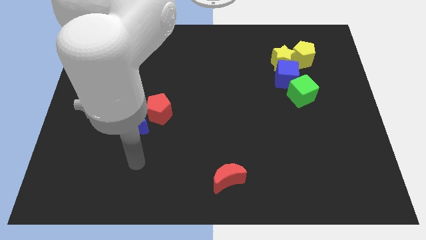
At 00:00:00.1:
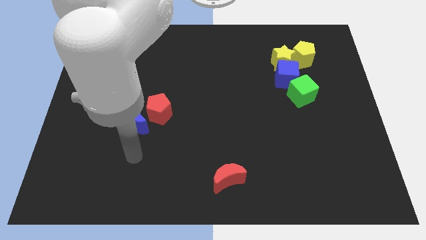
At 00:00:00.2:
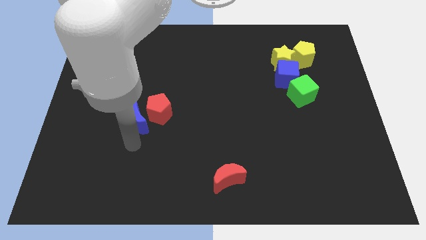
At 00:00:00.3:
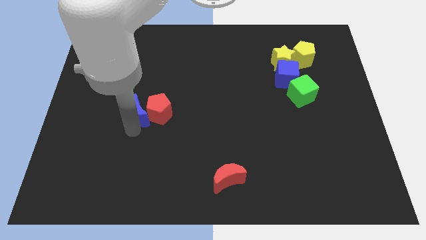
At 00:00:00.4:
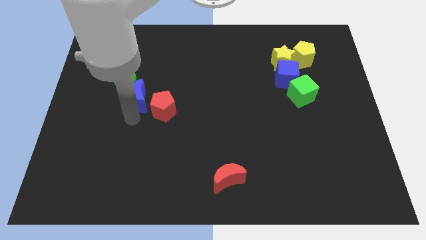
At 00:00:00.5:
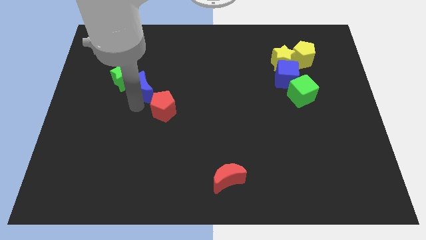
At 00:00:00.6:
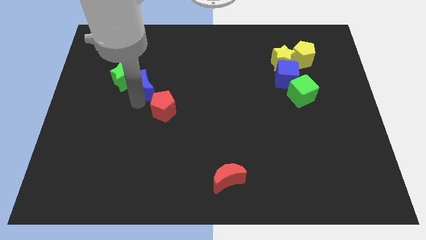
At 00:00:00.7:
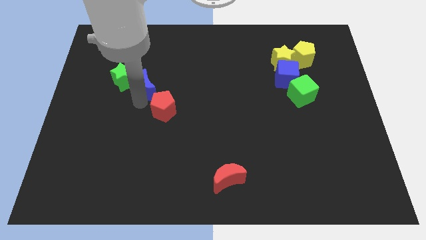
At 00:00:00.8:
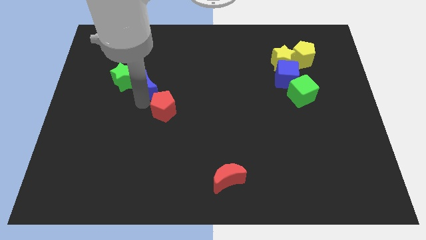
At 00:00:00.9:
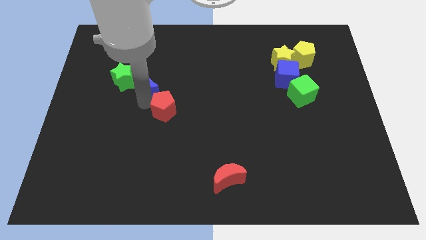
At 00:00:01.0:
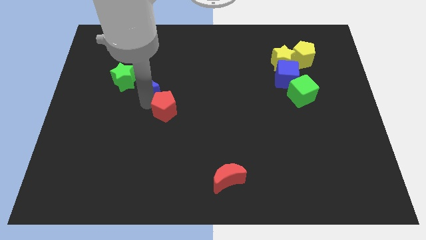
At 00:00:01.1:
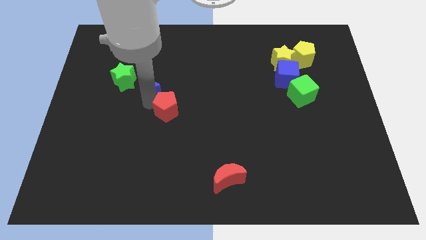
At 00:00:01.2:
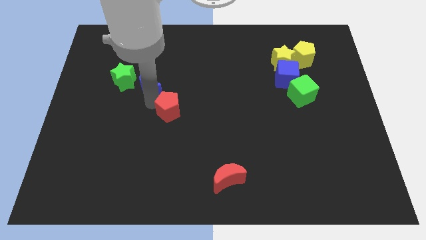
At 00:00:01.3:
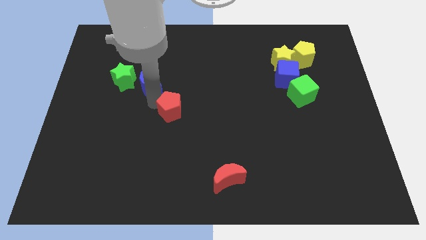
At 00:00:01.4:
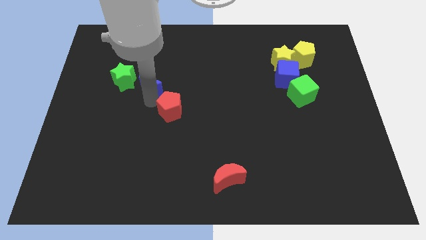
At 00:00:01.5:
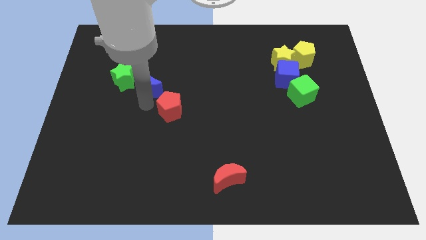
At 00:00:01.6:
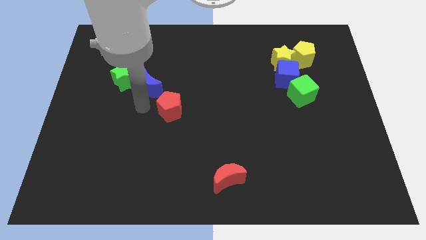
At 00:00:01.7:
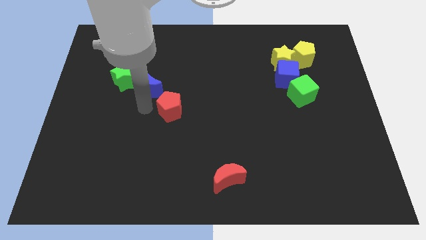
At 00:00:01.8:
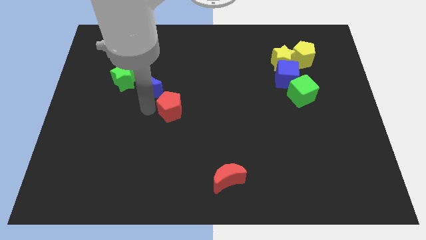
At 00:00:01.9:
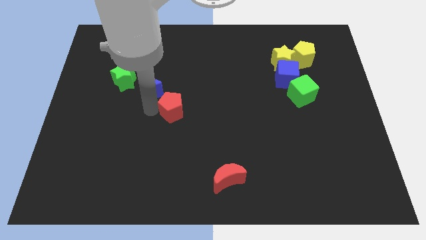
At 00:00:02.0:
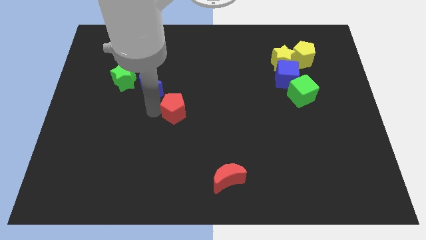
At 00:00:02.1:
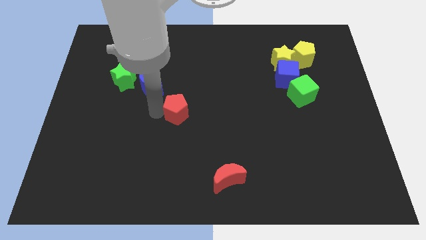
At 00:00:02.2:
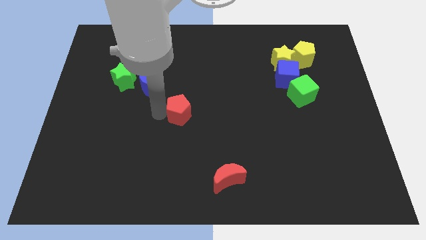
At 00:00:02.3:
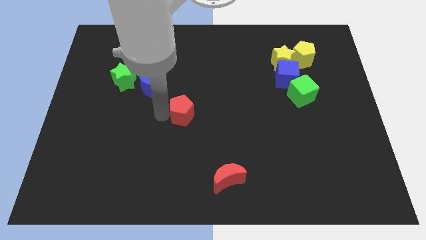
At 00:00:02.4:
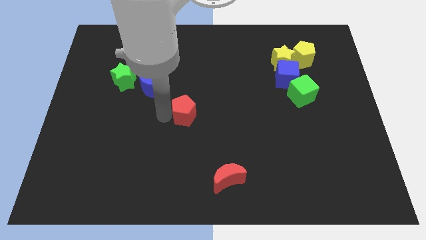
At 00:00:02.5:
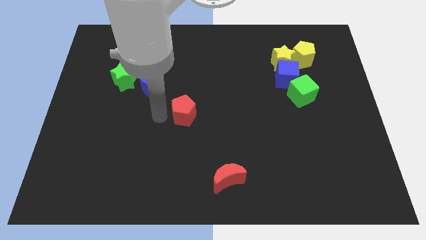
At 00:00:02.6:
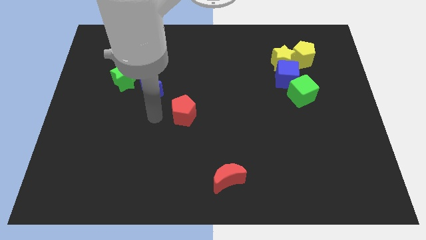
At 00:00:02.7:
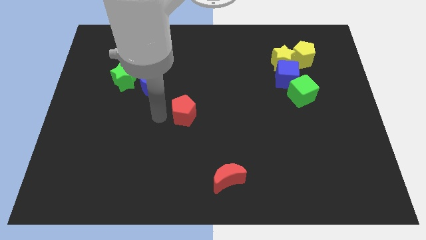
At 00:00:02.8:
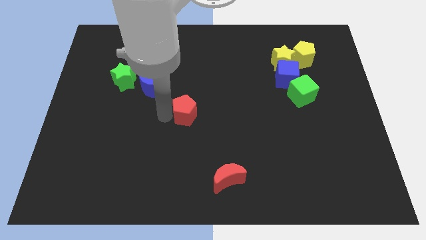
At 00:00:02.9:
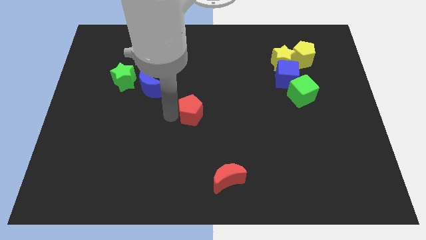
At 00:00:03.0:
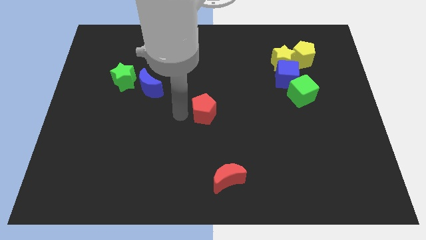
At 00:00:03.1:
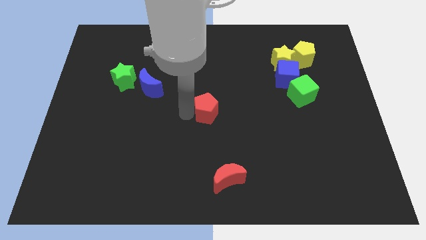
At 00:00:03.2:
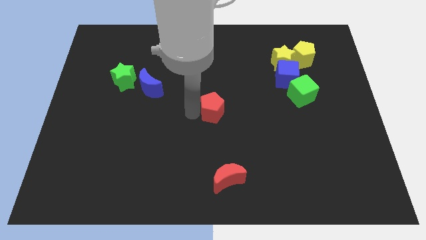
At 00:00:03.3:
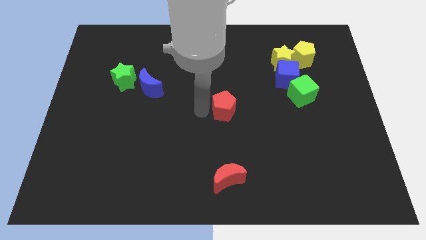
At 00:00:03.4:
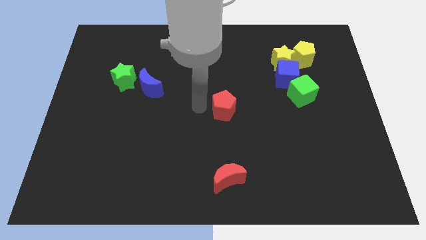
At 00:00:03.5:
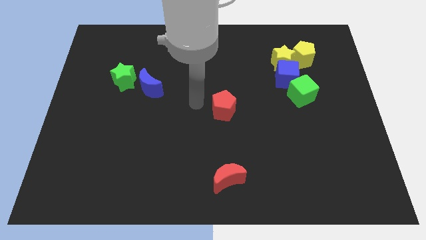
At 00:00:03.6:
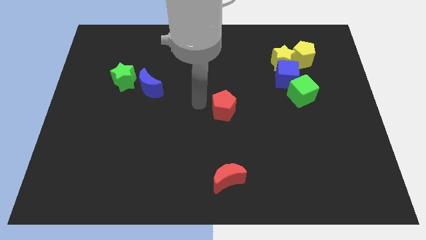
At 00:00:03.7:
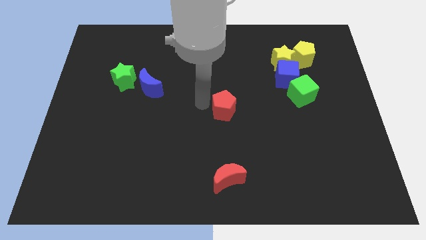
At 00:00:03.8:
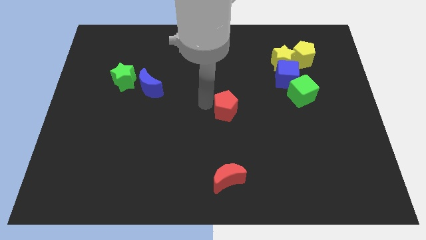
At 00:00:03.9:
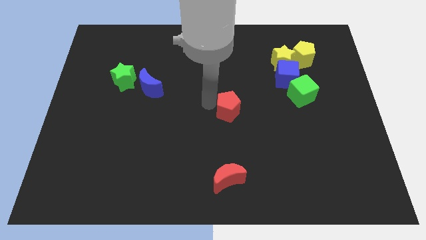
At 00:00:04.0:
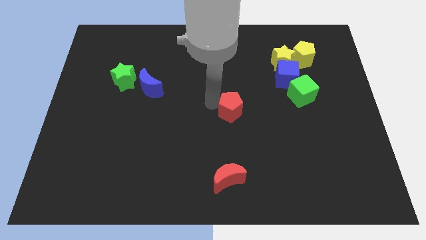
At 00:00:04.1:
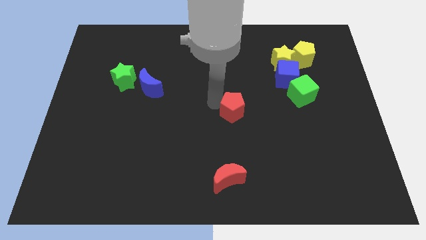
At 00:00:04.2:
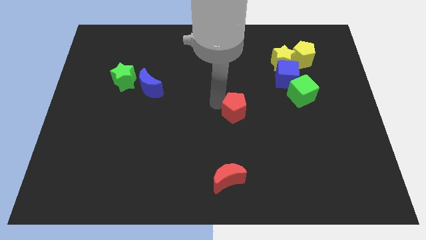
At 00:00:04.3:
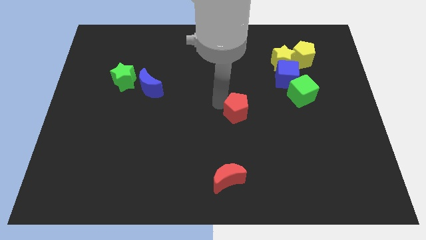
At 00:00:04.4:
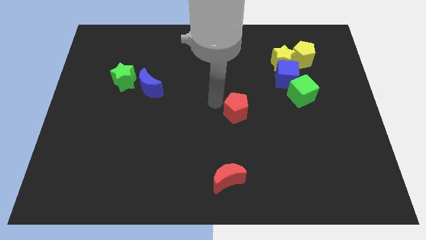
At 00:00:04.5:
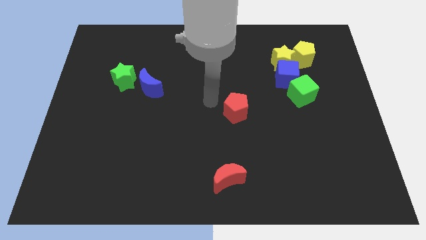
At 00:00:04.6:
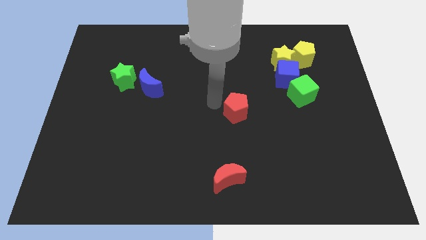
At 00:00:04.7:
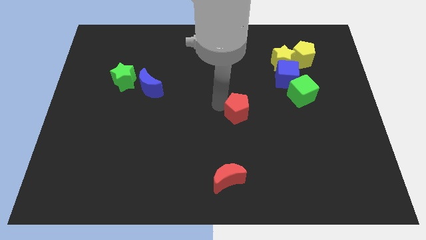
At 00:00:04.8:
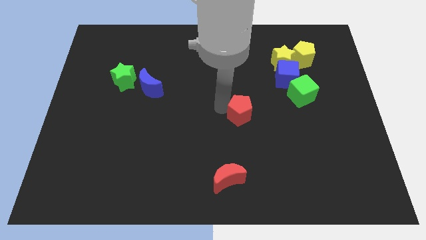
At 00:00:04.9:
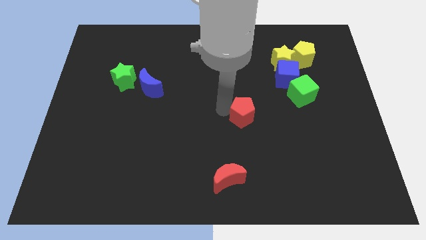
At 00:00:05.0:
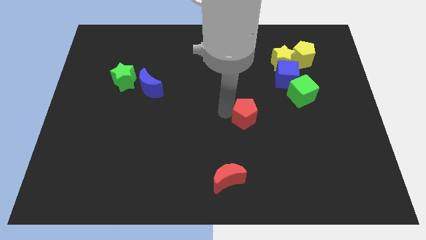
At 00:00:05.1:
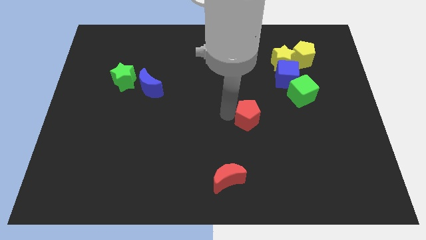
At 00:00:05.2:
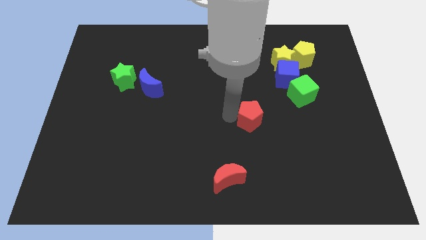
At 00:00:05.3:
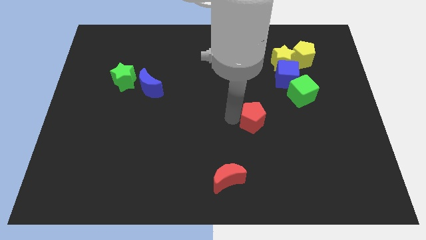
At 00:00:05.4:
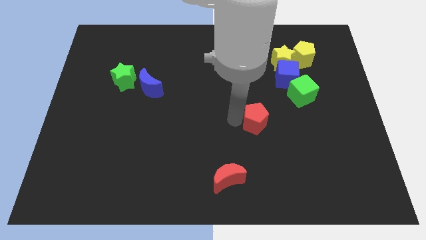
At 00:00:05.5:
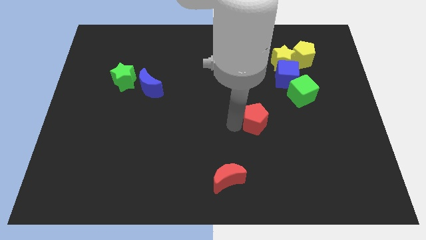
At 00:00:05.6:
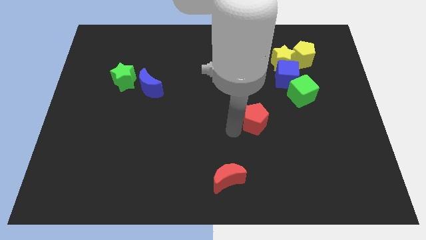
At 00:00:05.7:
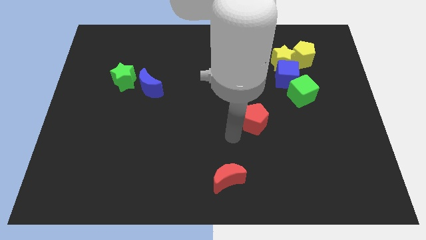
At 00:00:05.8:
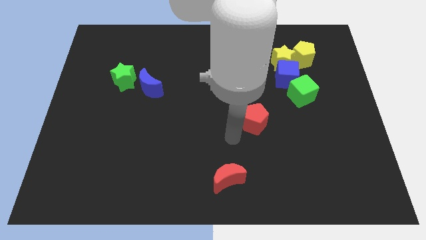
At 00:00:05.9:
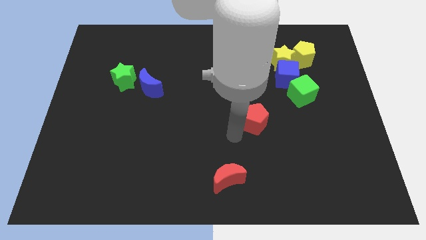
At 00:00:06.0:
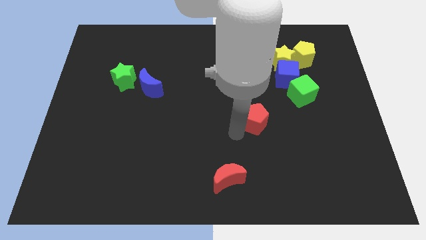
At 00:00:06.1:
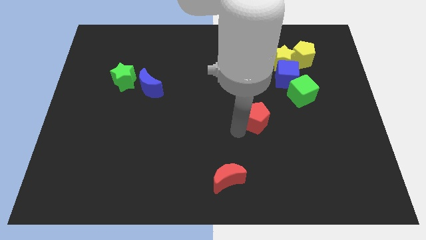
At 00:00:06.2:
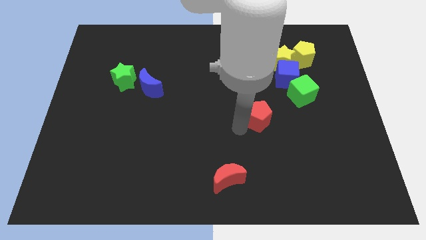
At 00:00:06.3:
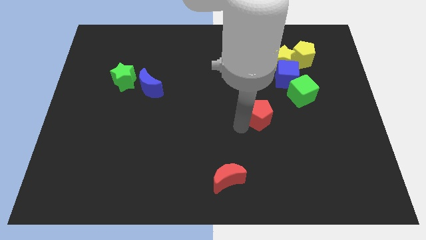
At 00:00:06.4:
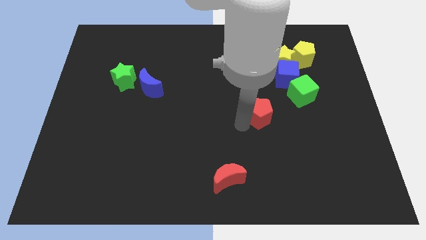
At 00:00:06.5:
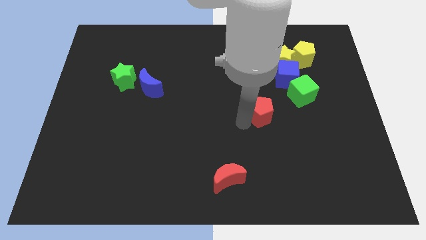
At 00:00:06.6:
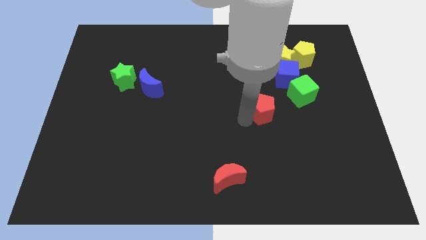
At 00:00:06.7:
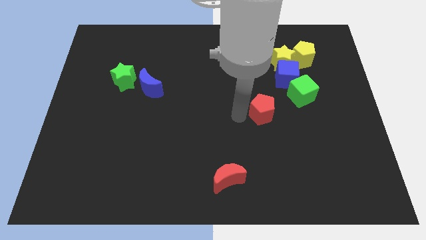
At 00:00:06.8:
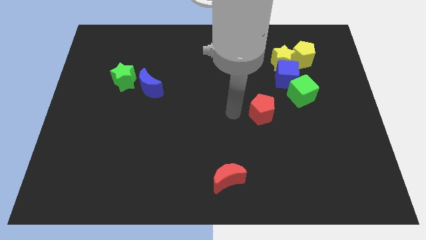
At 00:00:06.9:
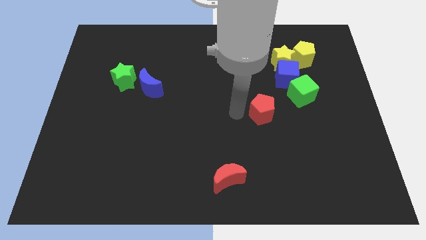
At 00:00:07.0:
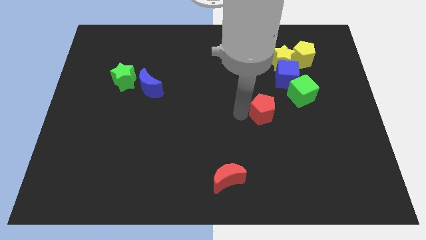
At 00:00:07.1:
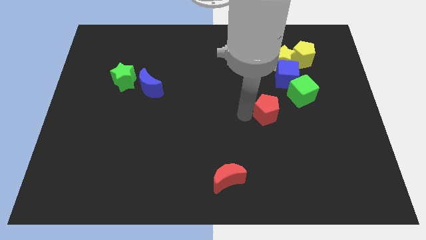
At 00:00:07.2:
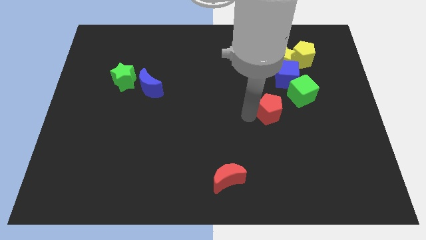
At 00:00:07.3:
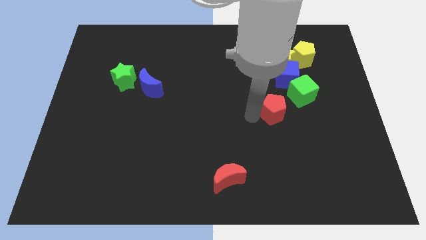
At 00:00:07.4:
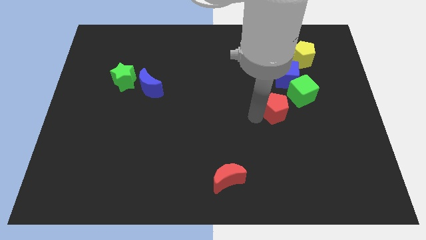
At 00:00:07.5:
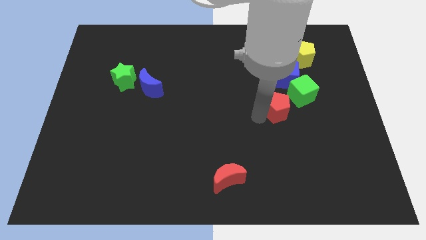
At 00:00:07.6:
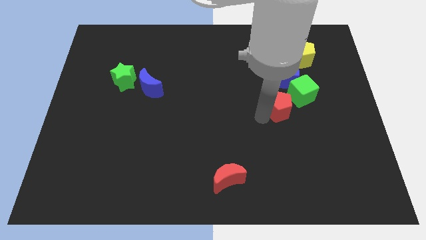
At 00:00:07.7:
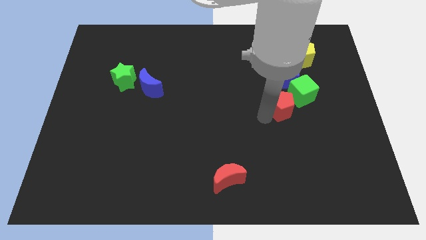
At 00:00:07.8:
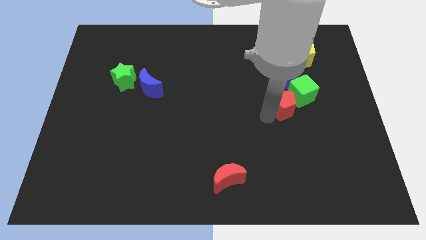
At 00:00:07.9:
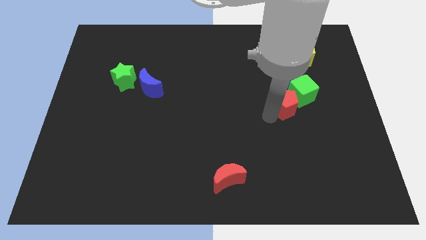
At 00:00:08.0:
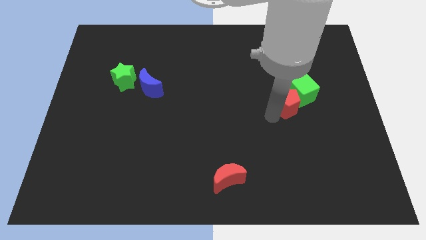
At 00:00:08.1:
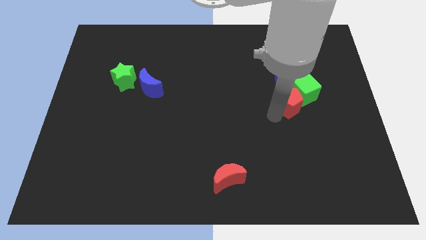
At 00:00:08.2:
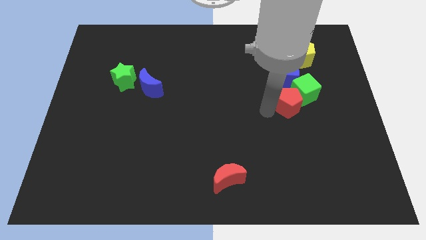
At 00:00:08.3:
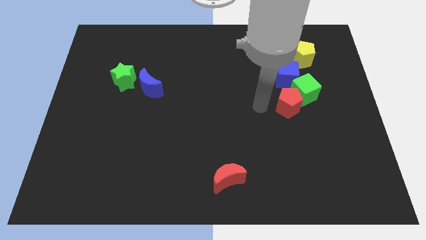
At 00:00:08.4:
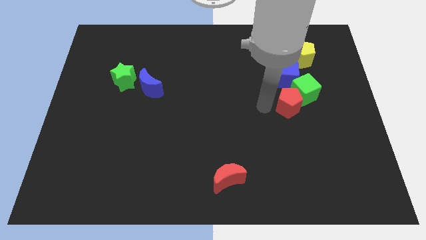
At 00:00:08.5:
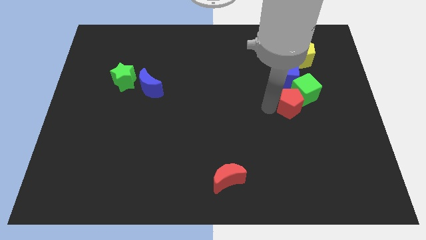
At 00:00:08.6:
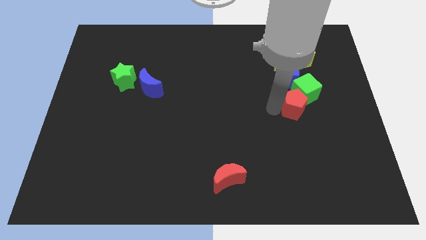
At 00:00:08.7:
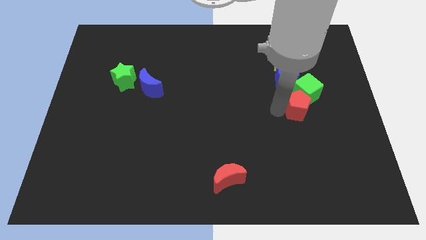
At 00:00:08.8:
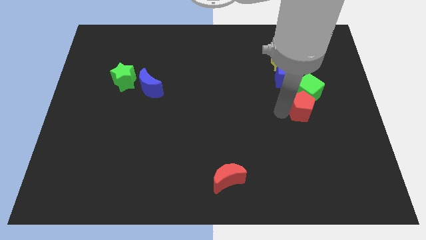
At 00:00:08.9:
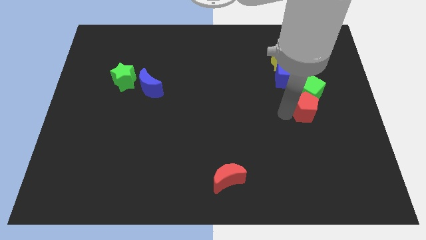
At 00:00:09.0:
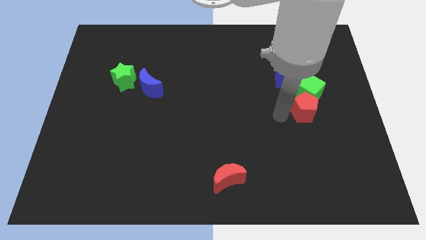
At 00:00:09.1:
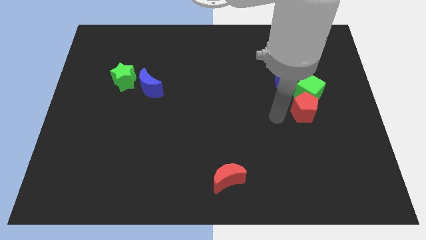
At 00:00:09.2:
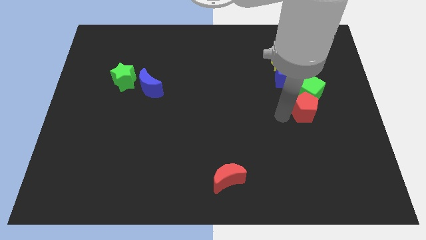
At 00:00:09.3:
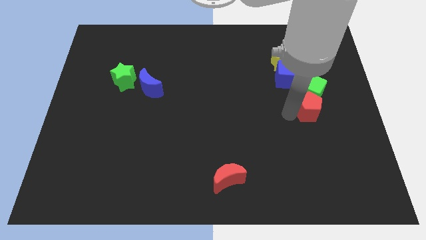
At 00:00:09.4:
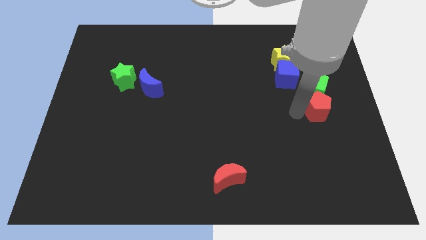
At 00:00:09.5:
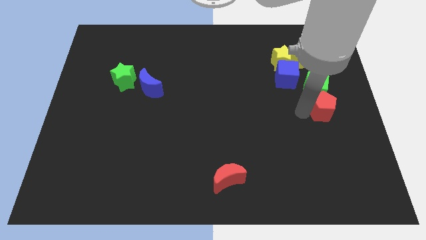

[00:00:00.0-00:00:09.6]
move the red pentagon to the right side
